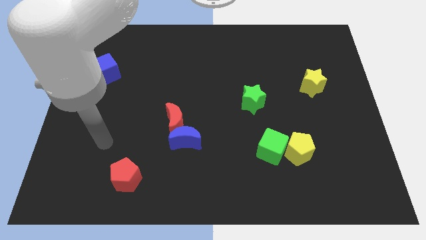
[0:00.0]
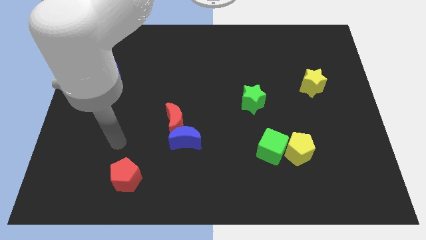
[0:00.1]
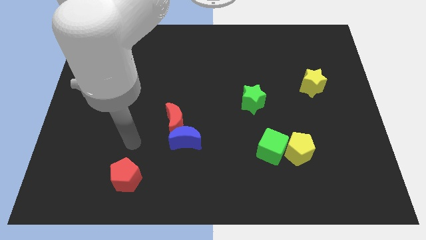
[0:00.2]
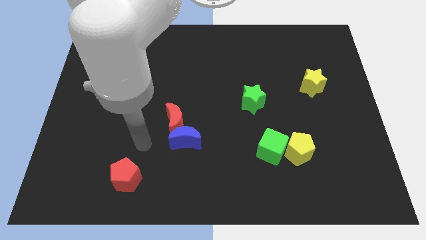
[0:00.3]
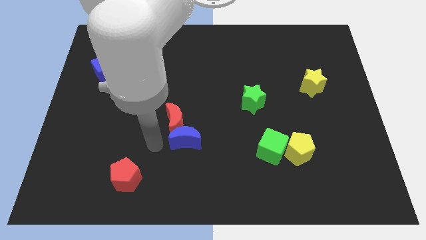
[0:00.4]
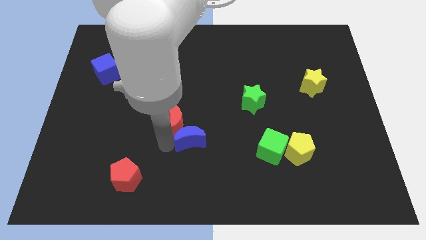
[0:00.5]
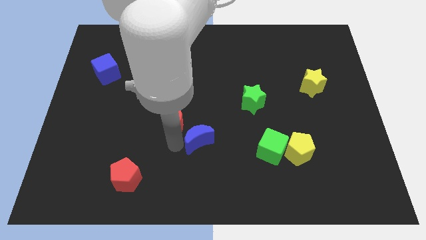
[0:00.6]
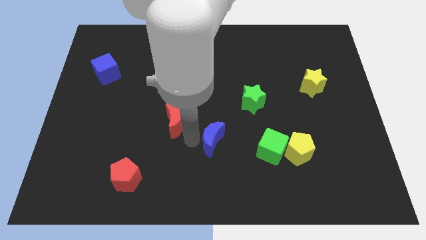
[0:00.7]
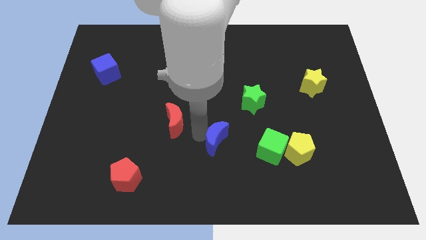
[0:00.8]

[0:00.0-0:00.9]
pull the red moon apart from the blue moon

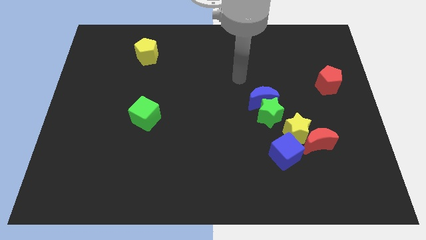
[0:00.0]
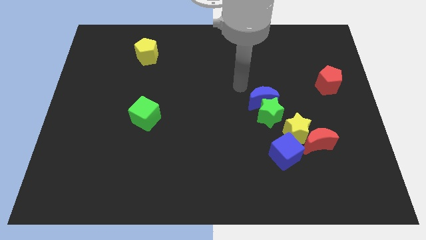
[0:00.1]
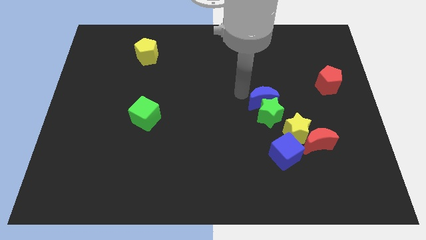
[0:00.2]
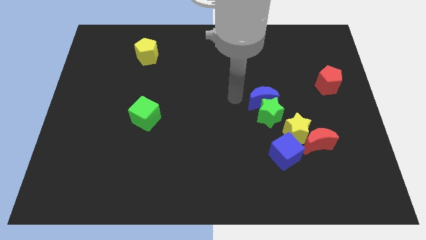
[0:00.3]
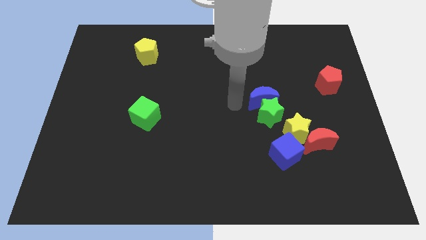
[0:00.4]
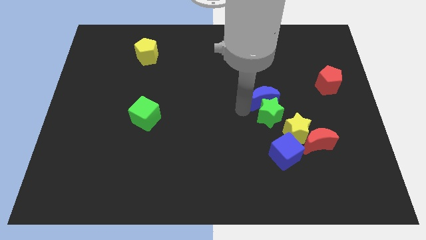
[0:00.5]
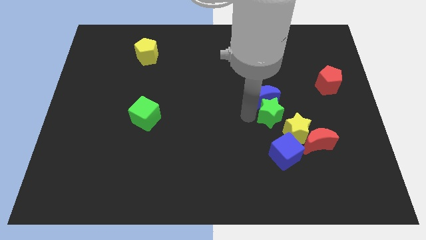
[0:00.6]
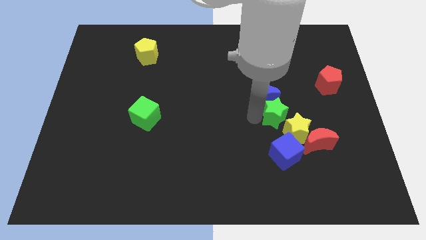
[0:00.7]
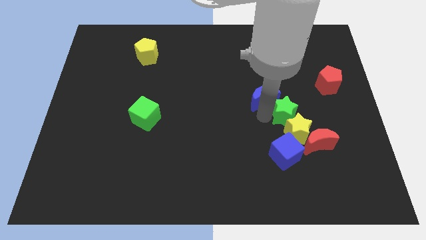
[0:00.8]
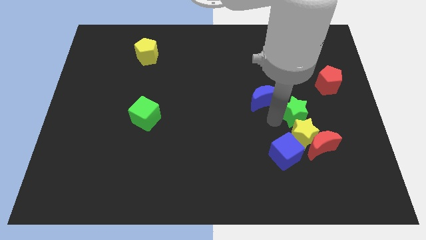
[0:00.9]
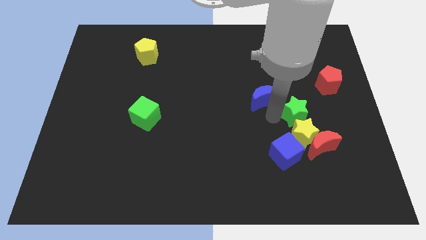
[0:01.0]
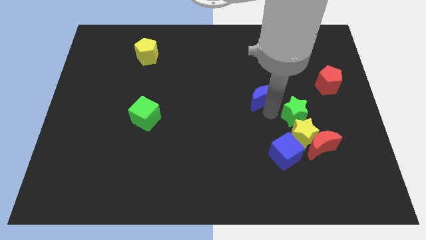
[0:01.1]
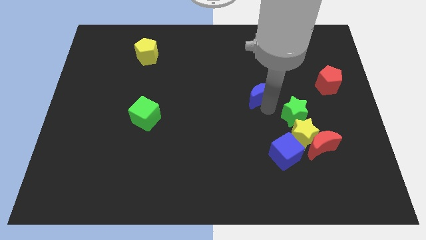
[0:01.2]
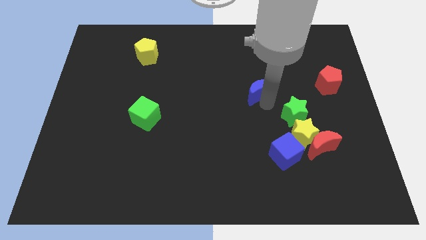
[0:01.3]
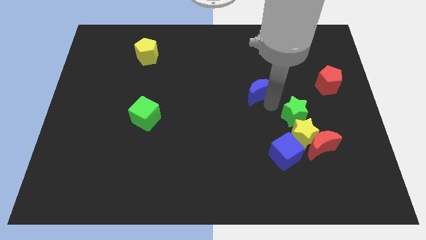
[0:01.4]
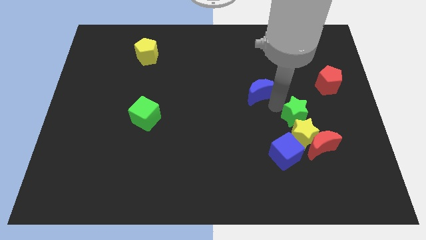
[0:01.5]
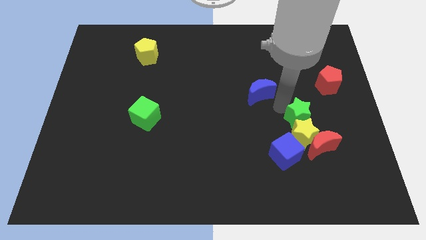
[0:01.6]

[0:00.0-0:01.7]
separate the blue moon from the green star

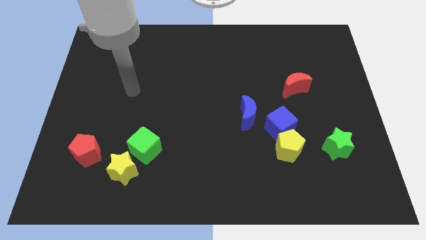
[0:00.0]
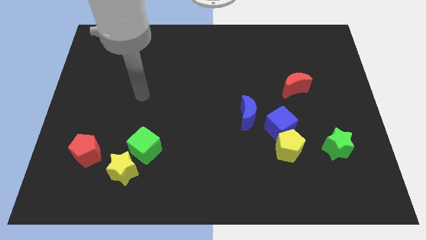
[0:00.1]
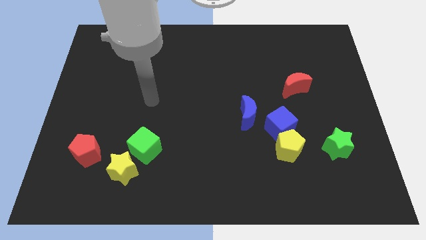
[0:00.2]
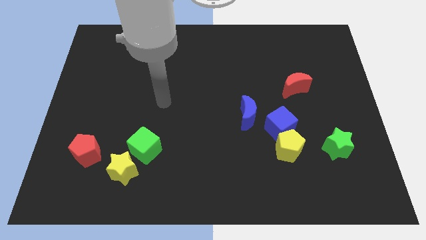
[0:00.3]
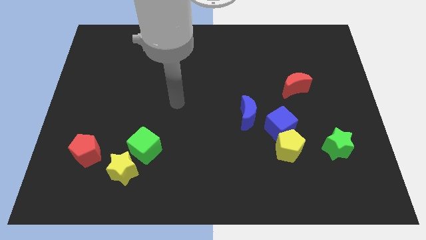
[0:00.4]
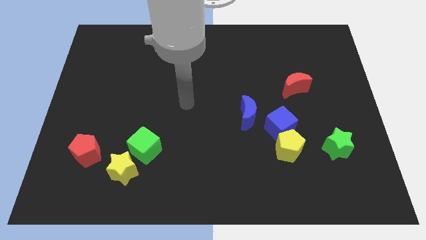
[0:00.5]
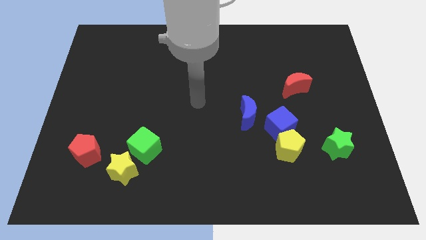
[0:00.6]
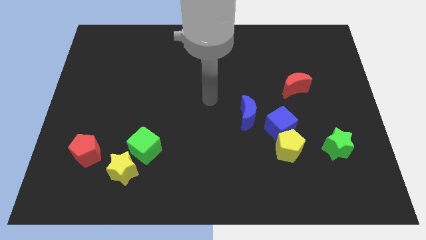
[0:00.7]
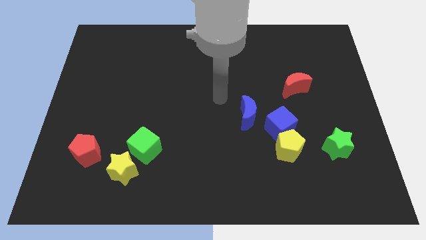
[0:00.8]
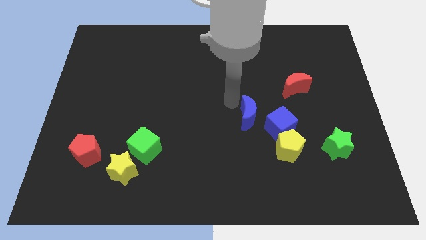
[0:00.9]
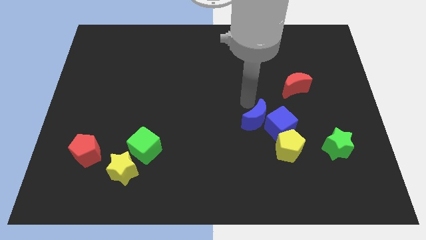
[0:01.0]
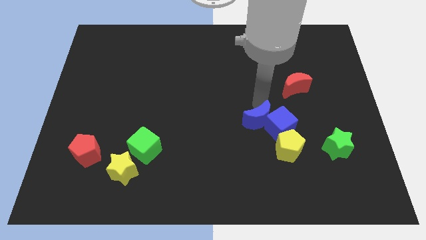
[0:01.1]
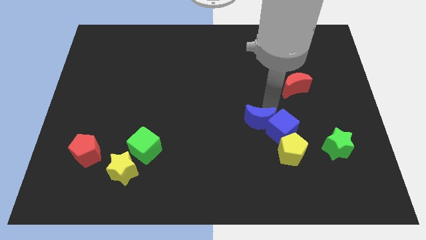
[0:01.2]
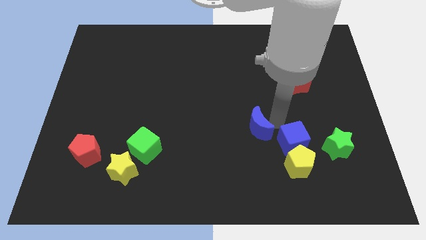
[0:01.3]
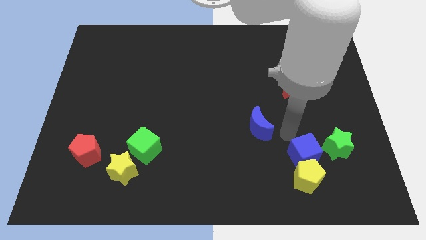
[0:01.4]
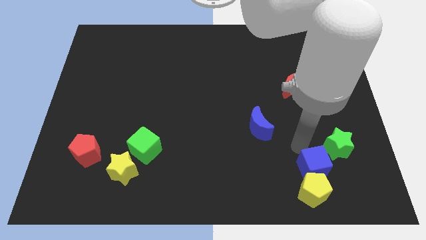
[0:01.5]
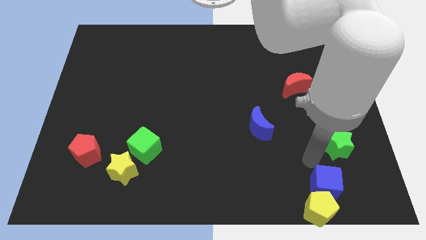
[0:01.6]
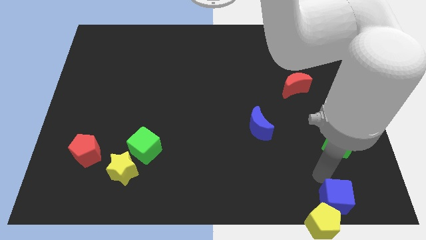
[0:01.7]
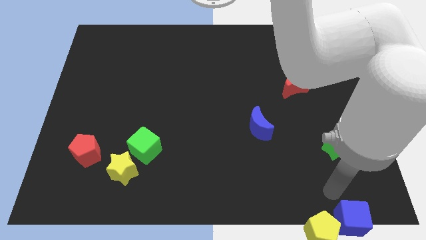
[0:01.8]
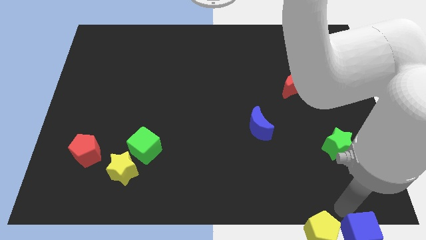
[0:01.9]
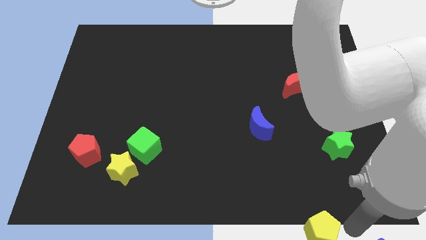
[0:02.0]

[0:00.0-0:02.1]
pull the yellow pentagon apart from the blue cube

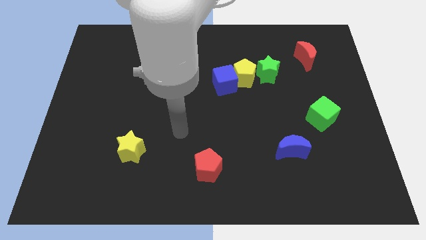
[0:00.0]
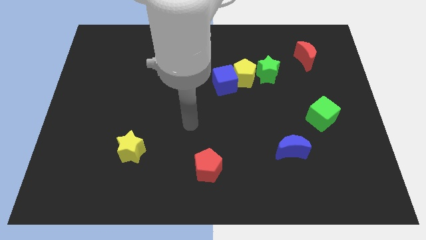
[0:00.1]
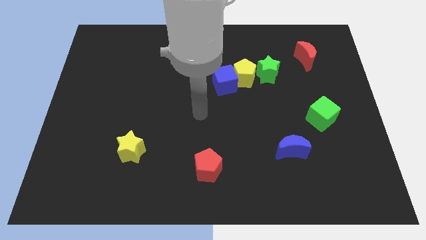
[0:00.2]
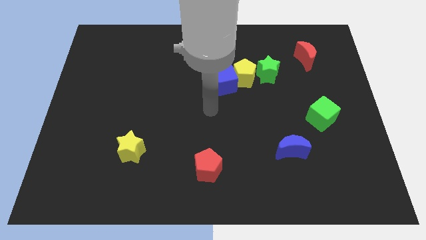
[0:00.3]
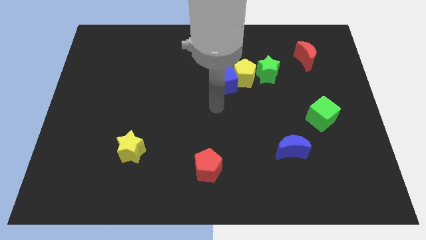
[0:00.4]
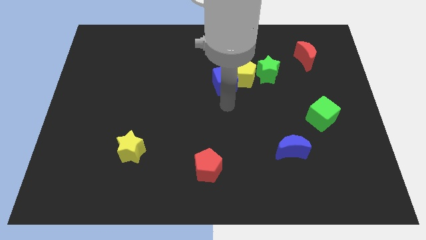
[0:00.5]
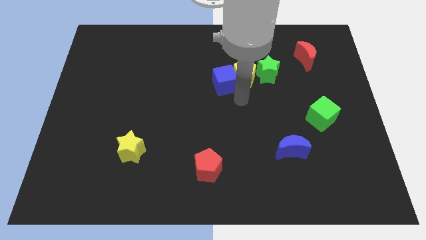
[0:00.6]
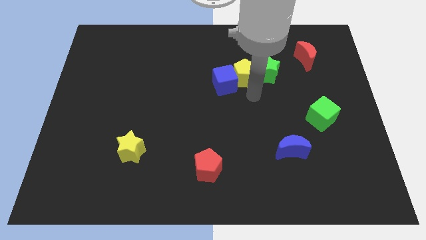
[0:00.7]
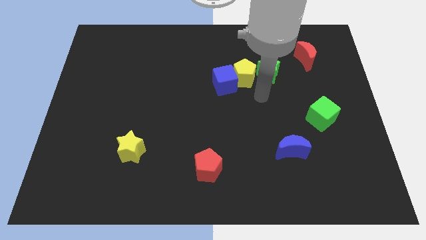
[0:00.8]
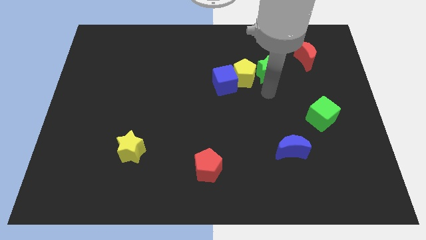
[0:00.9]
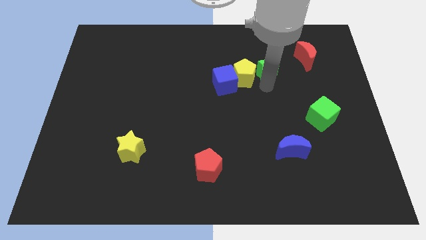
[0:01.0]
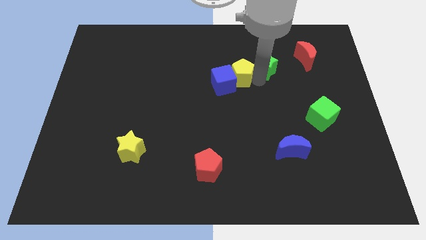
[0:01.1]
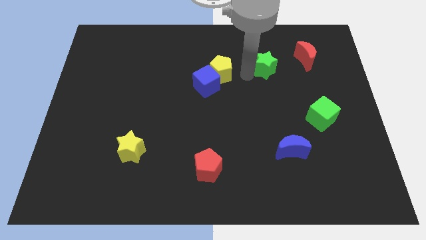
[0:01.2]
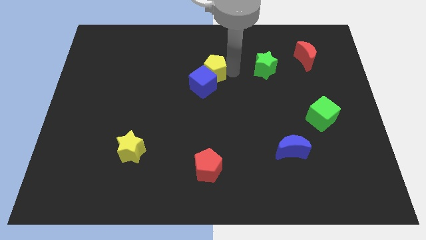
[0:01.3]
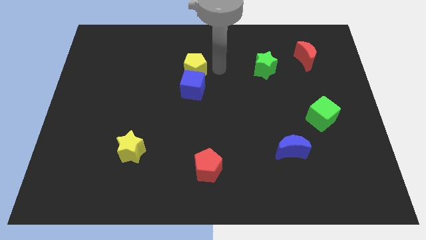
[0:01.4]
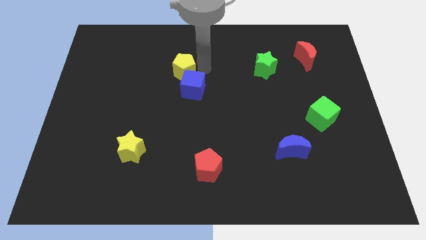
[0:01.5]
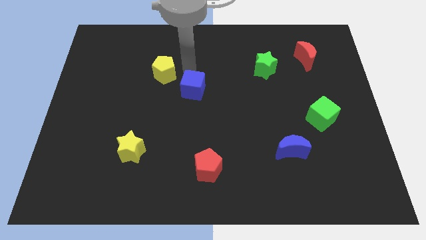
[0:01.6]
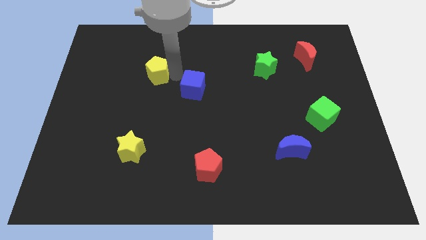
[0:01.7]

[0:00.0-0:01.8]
separate the blue cube from the yellow pentagon

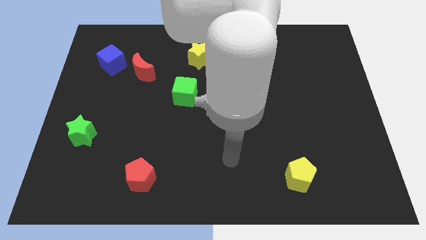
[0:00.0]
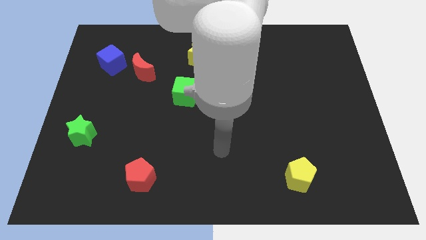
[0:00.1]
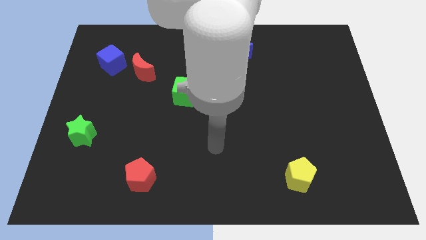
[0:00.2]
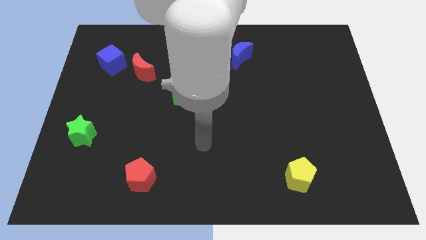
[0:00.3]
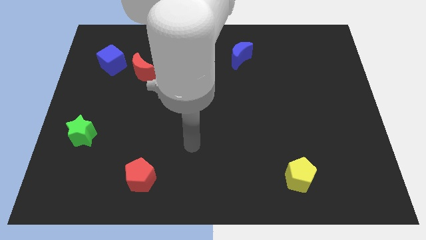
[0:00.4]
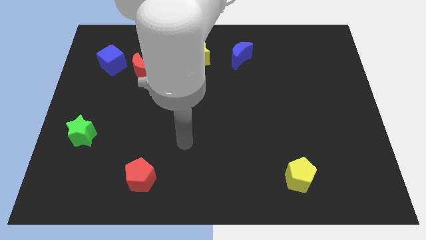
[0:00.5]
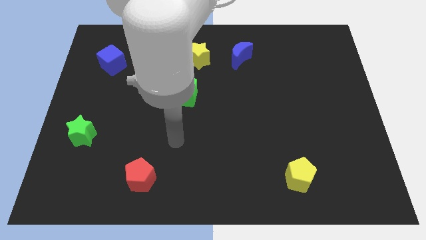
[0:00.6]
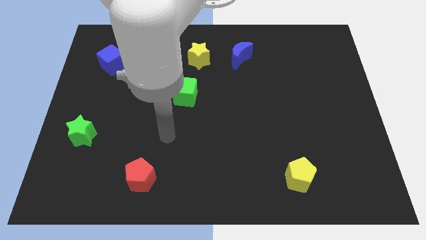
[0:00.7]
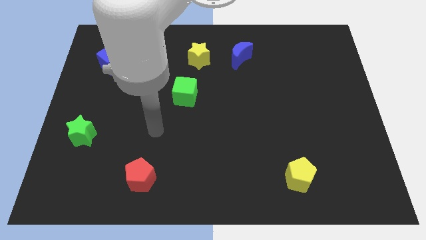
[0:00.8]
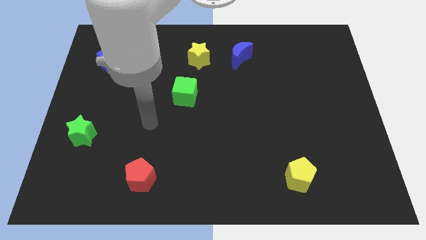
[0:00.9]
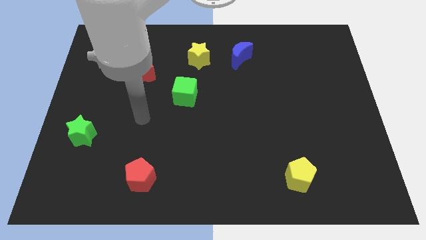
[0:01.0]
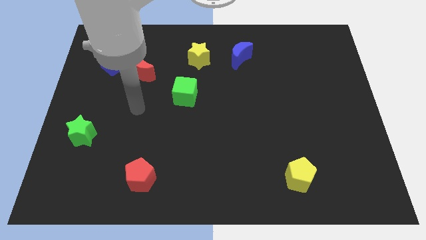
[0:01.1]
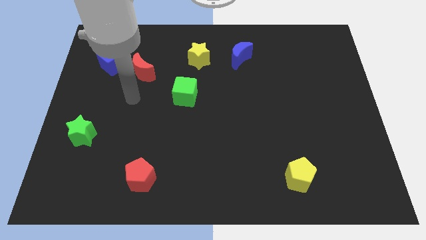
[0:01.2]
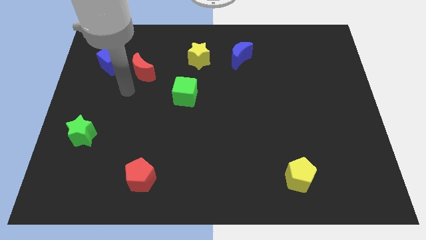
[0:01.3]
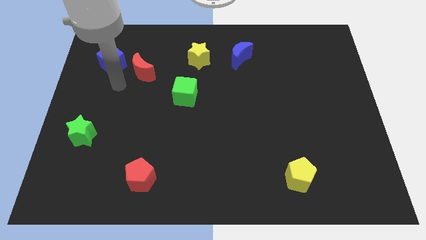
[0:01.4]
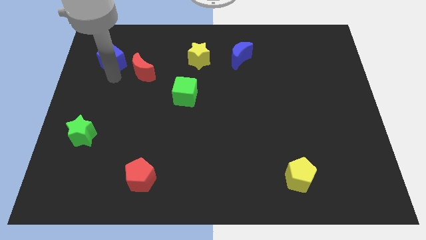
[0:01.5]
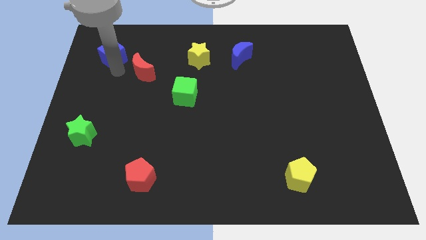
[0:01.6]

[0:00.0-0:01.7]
pull the red moon apart from the blue cube

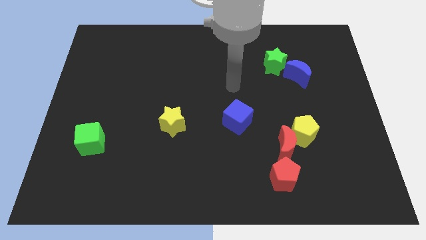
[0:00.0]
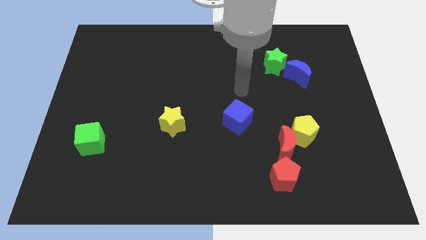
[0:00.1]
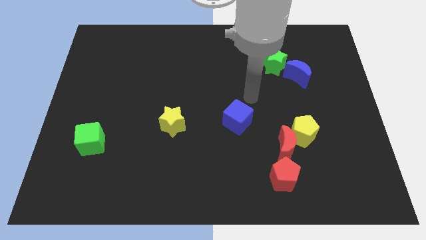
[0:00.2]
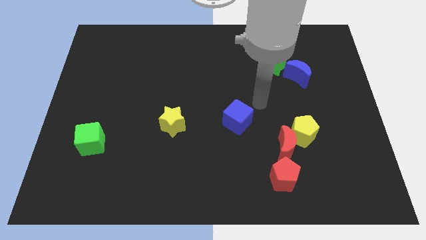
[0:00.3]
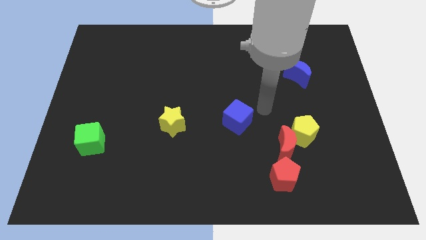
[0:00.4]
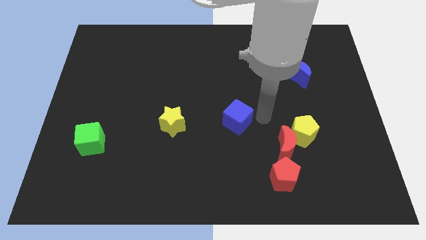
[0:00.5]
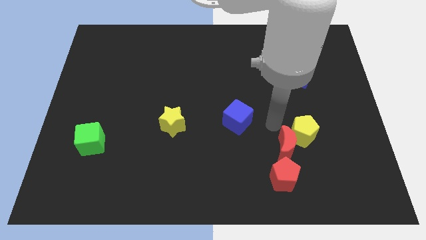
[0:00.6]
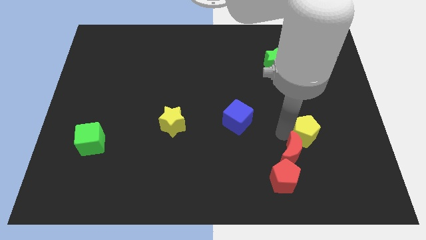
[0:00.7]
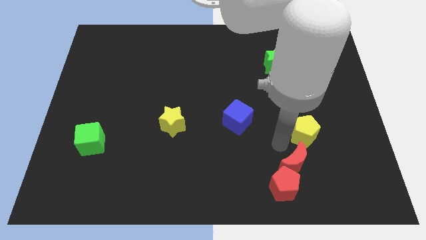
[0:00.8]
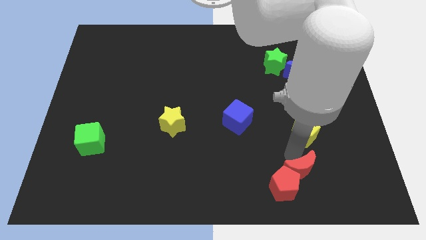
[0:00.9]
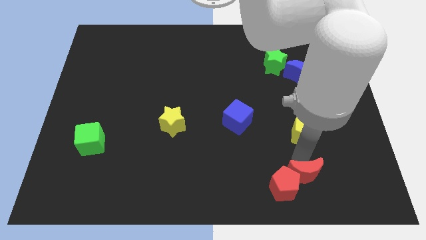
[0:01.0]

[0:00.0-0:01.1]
move the yellow pentagon away from the red moon
